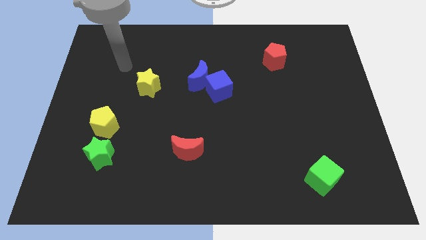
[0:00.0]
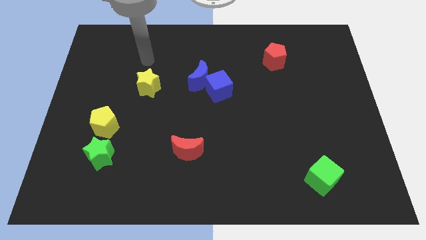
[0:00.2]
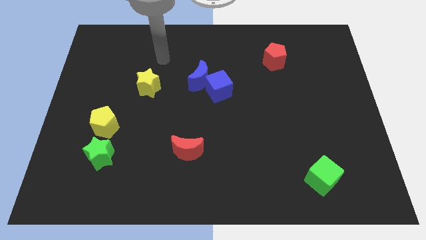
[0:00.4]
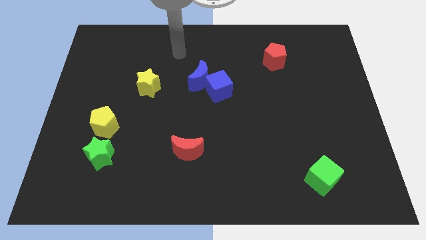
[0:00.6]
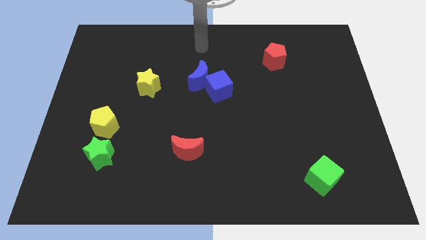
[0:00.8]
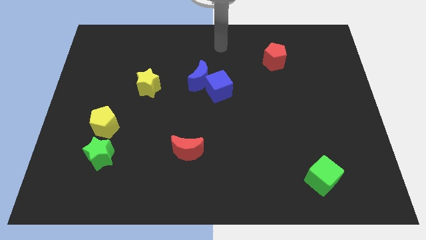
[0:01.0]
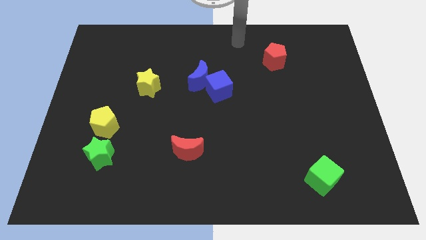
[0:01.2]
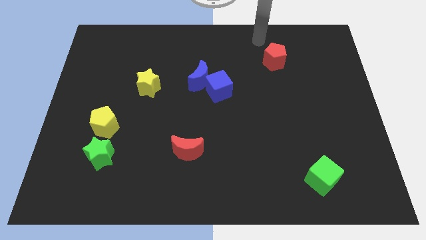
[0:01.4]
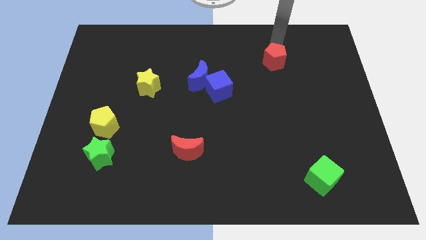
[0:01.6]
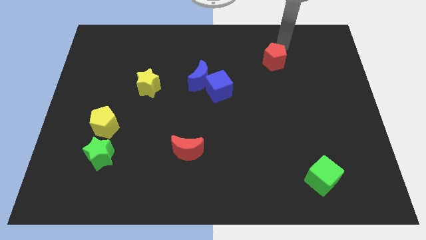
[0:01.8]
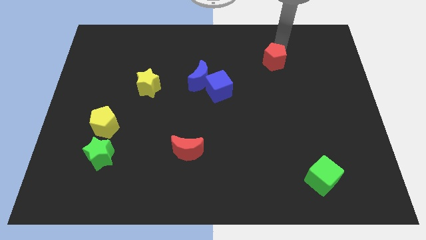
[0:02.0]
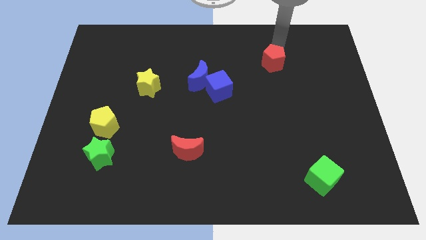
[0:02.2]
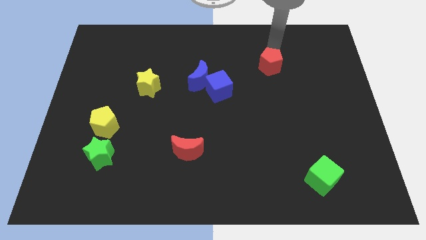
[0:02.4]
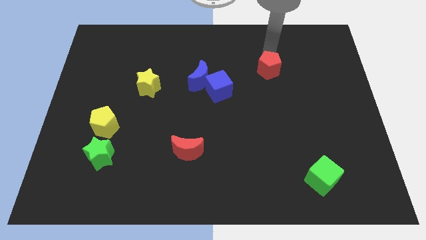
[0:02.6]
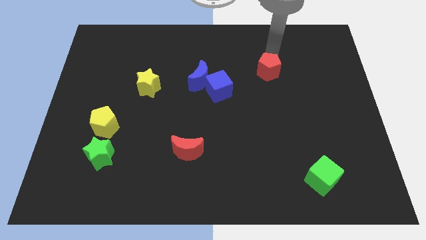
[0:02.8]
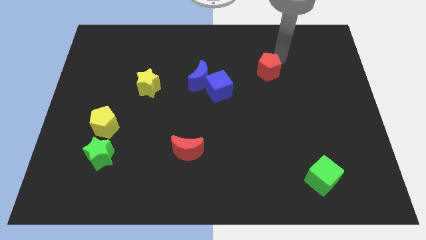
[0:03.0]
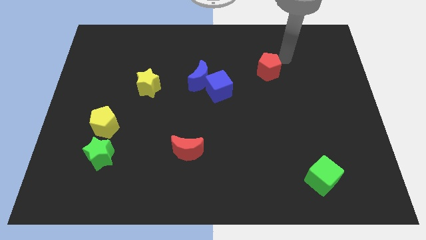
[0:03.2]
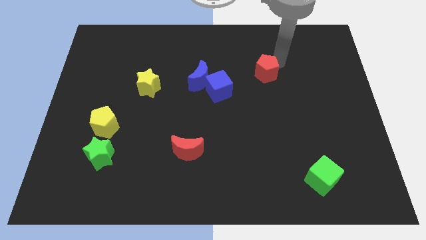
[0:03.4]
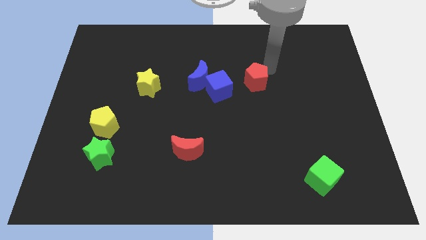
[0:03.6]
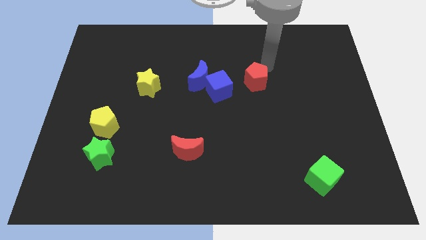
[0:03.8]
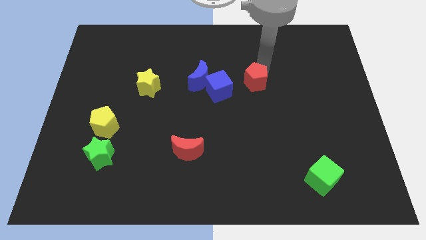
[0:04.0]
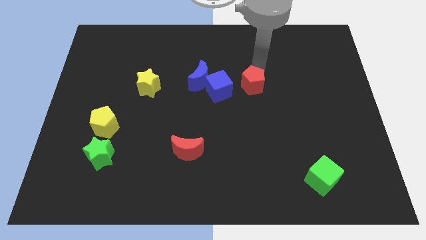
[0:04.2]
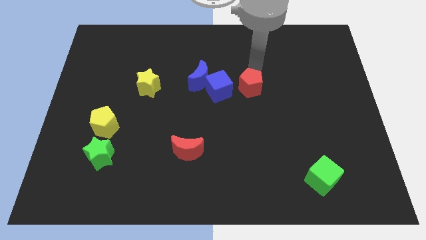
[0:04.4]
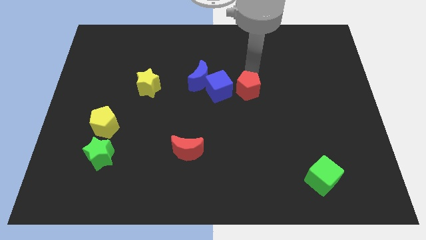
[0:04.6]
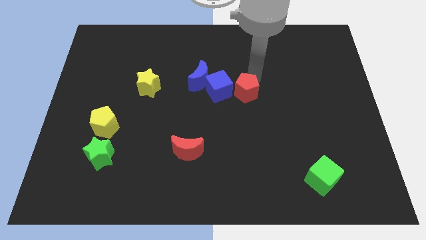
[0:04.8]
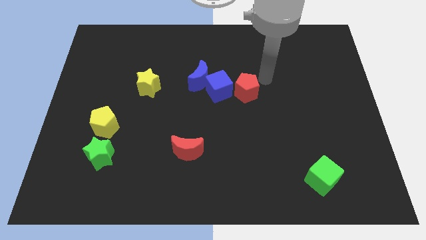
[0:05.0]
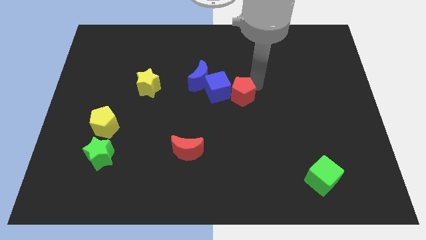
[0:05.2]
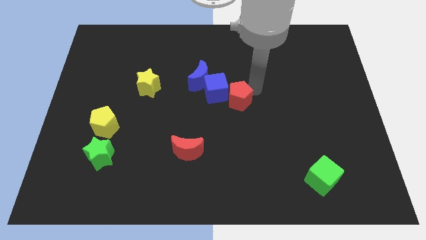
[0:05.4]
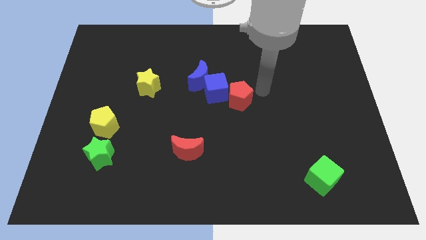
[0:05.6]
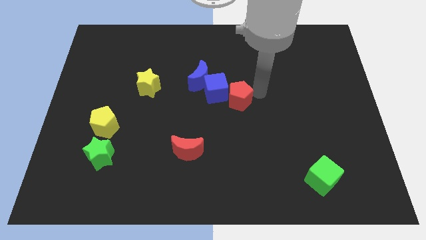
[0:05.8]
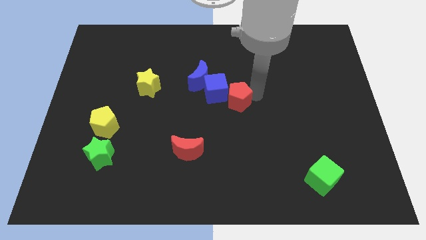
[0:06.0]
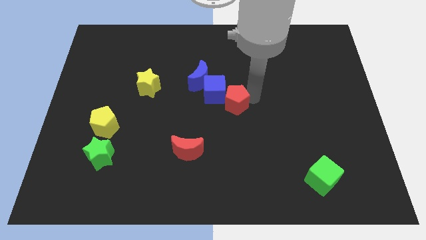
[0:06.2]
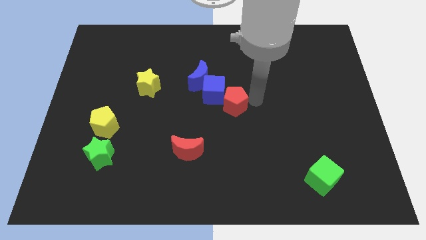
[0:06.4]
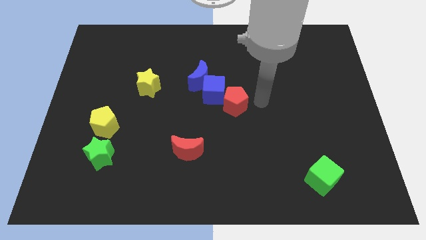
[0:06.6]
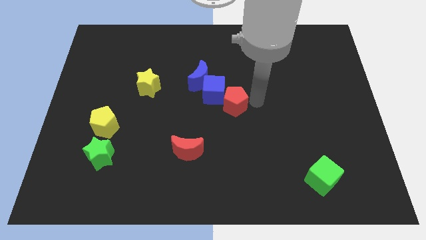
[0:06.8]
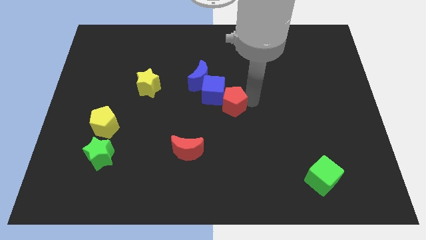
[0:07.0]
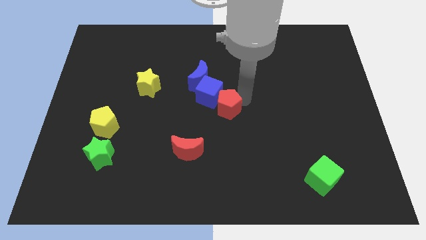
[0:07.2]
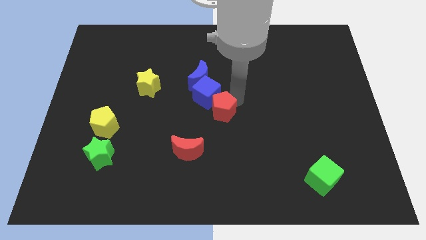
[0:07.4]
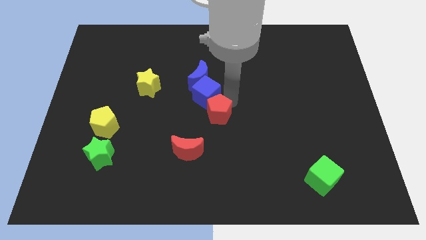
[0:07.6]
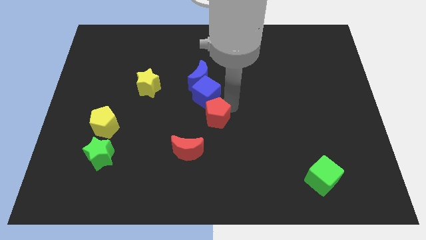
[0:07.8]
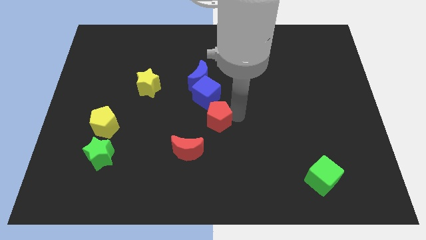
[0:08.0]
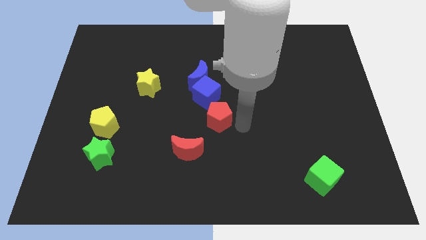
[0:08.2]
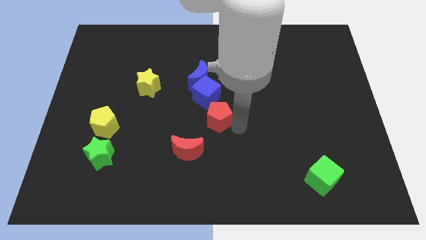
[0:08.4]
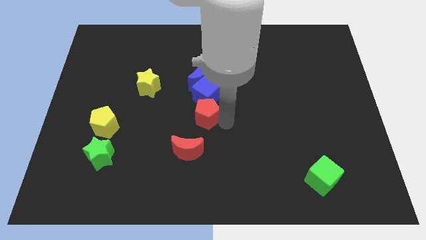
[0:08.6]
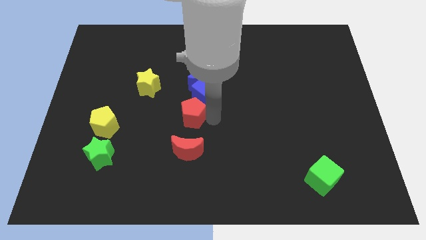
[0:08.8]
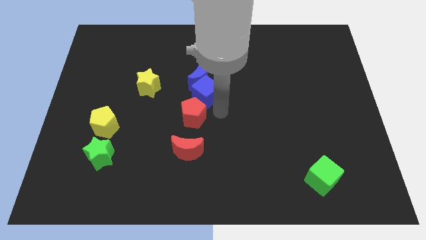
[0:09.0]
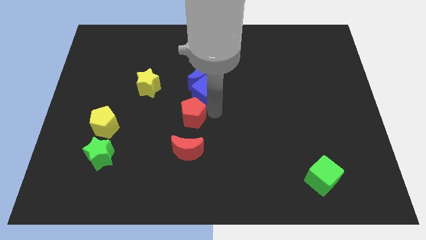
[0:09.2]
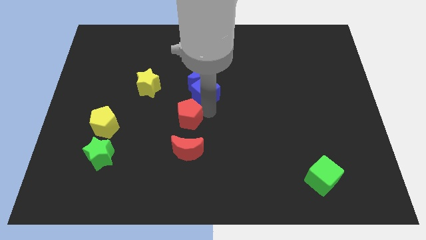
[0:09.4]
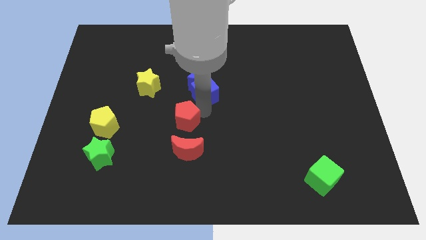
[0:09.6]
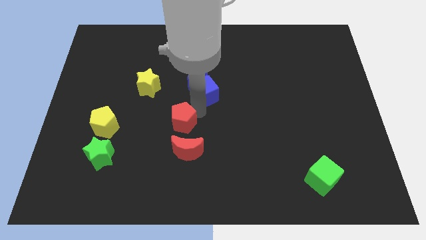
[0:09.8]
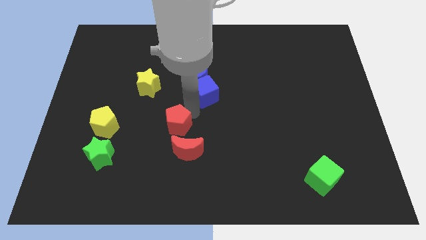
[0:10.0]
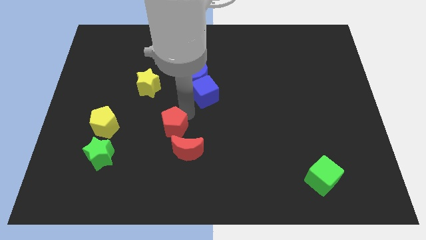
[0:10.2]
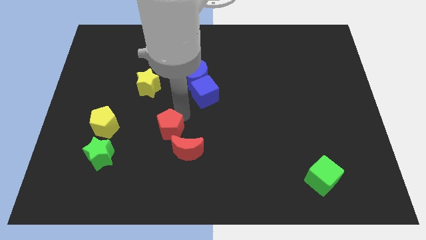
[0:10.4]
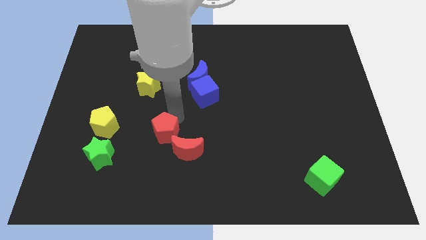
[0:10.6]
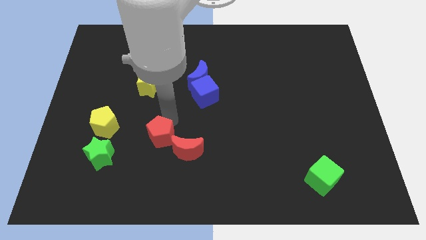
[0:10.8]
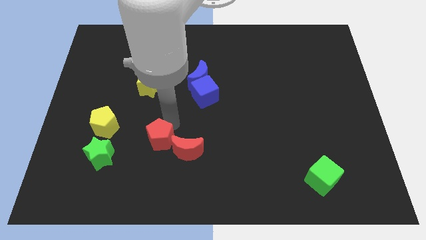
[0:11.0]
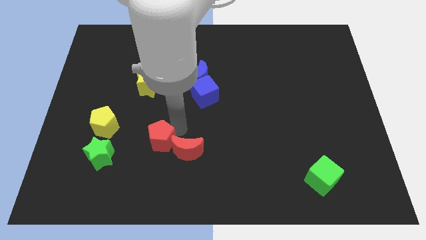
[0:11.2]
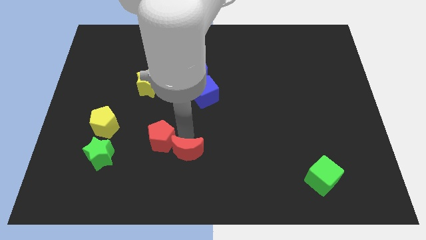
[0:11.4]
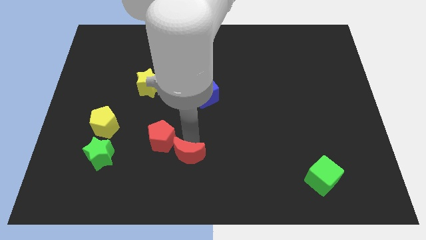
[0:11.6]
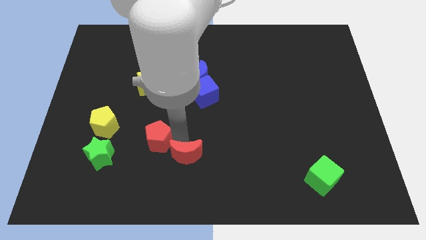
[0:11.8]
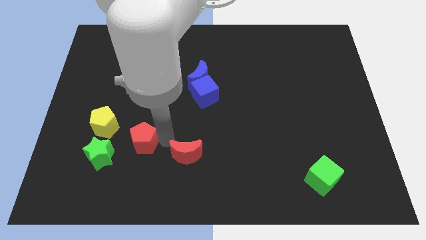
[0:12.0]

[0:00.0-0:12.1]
slide the red pentagon to the bottom right side of the yellow pentagon

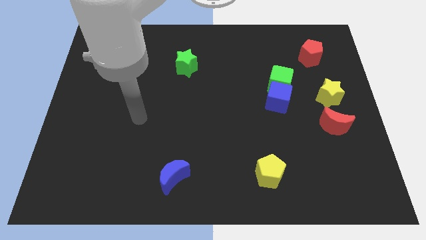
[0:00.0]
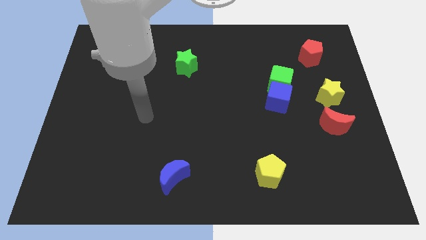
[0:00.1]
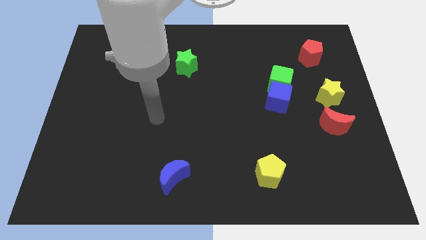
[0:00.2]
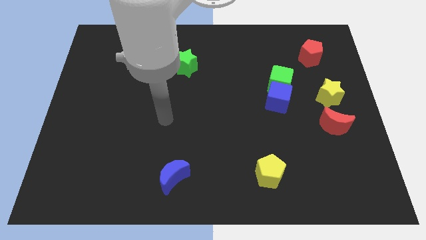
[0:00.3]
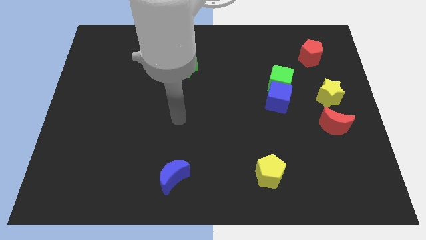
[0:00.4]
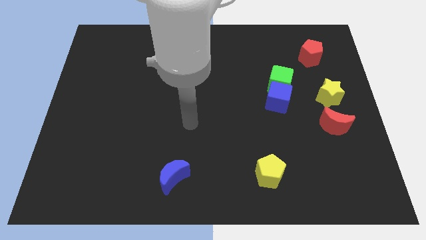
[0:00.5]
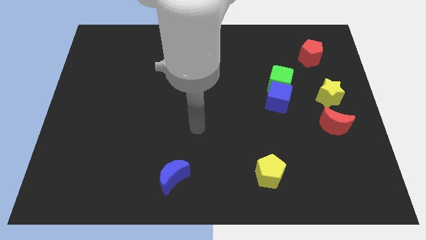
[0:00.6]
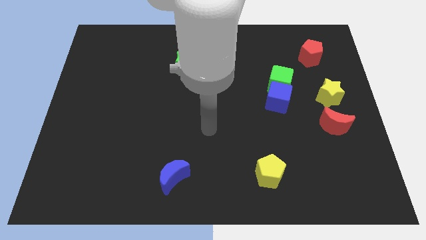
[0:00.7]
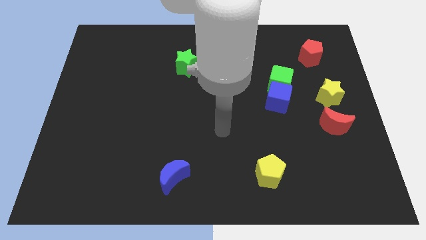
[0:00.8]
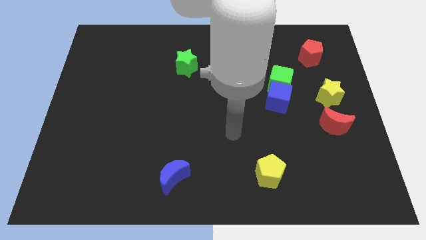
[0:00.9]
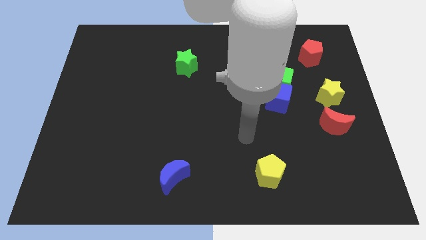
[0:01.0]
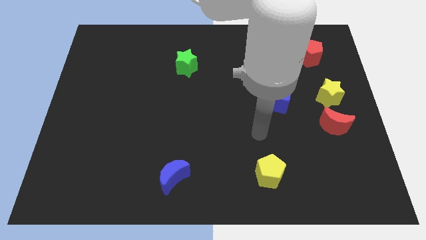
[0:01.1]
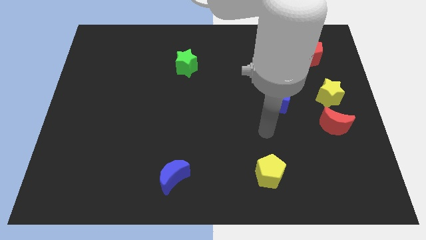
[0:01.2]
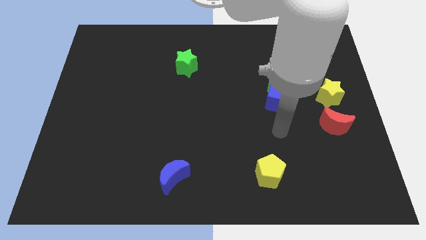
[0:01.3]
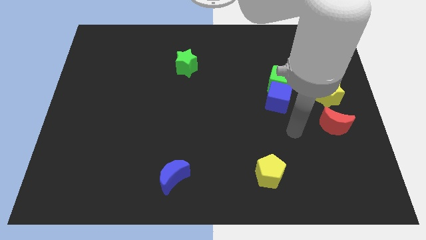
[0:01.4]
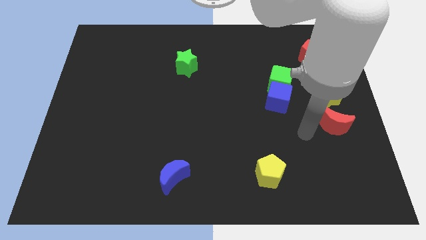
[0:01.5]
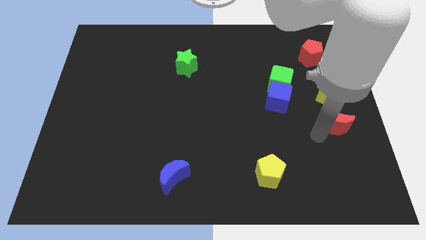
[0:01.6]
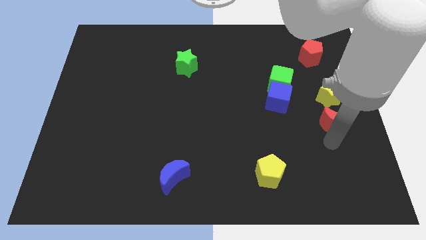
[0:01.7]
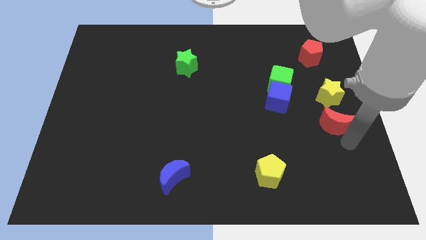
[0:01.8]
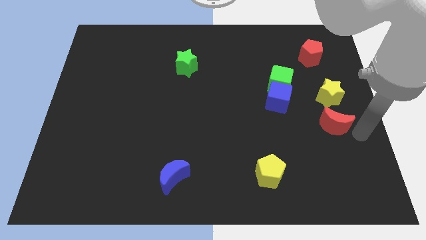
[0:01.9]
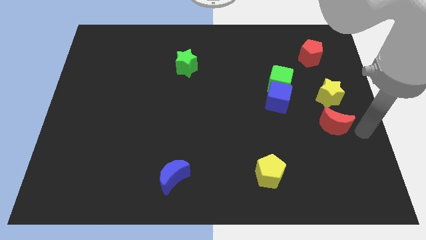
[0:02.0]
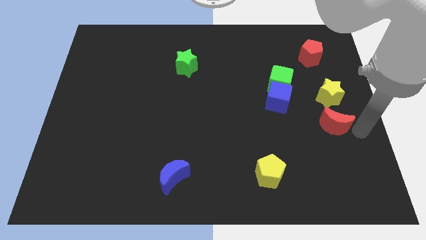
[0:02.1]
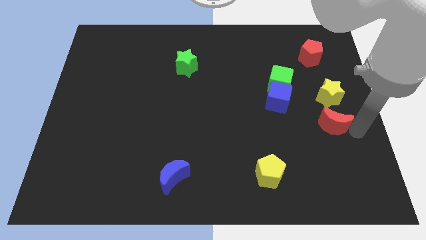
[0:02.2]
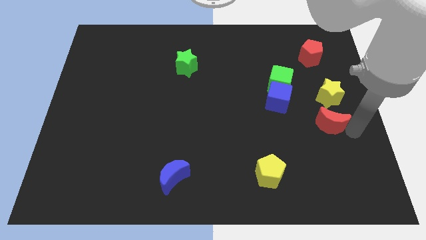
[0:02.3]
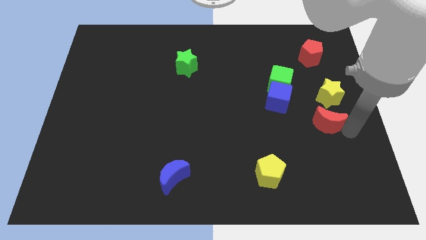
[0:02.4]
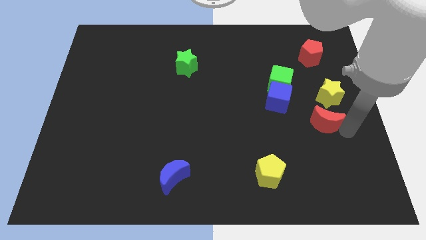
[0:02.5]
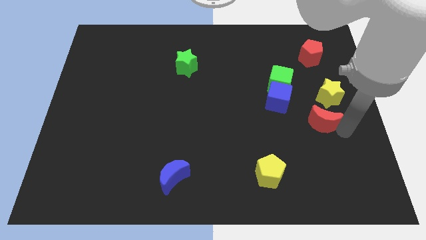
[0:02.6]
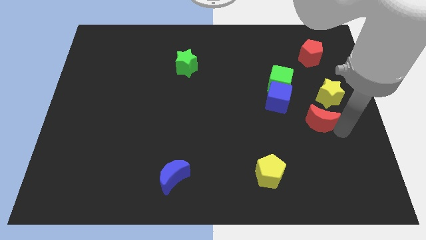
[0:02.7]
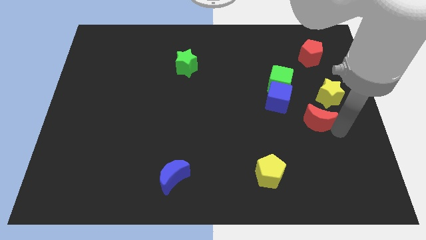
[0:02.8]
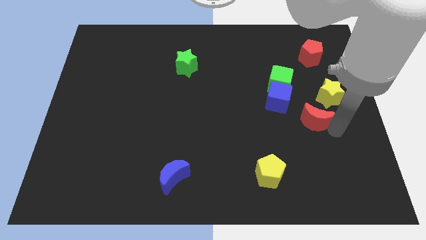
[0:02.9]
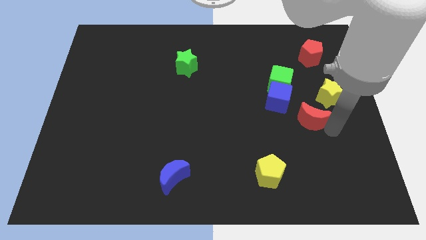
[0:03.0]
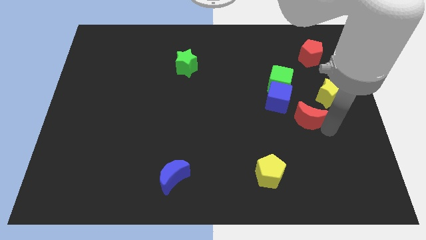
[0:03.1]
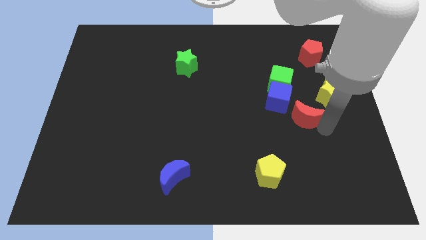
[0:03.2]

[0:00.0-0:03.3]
slide the red moon to the bottom of the green cube
